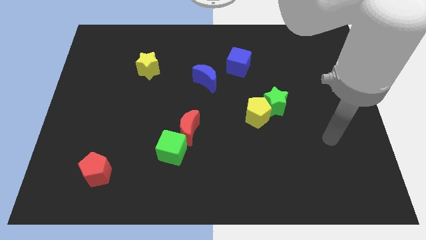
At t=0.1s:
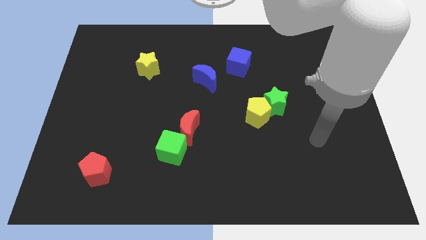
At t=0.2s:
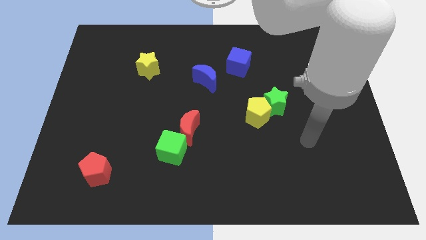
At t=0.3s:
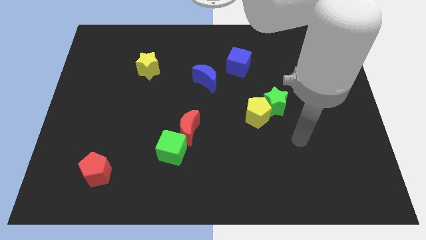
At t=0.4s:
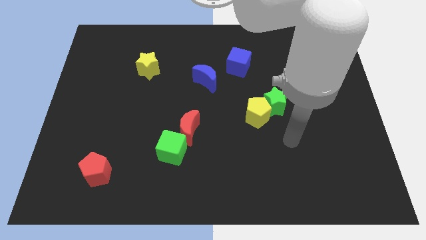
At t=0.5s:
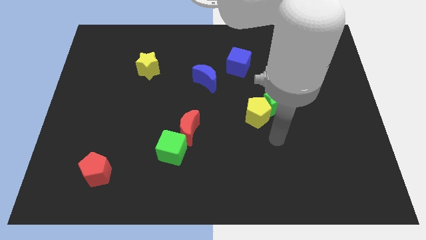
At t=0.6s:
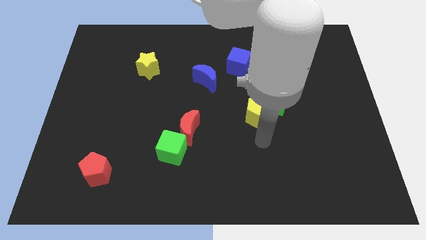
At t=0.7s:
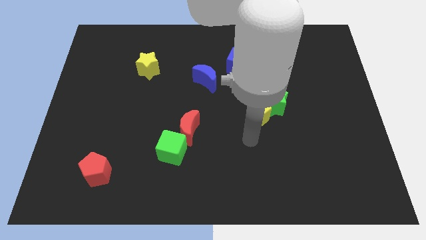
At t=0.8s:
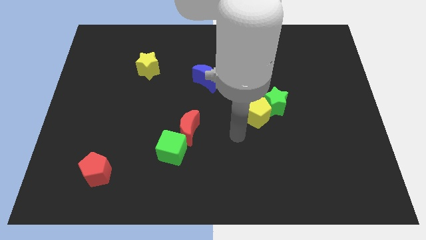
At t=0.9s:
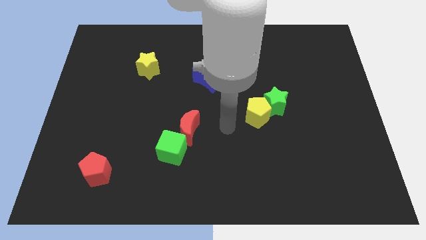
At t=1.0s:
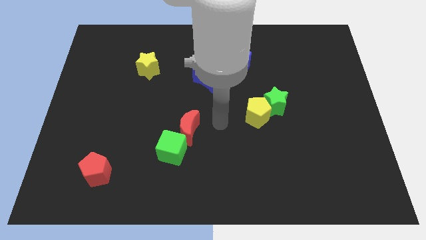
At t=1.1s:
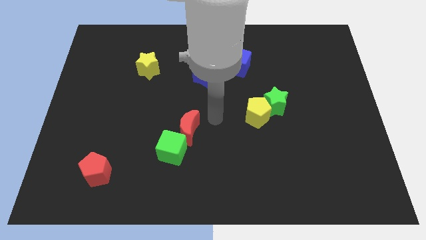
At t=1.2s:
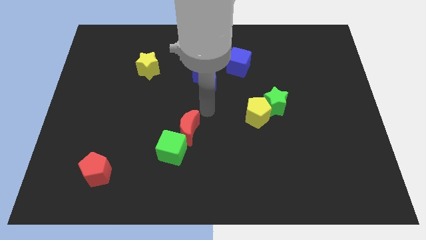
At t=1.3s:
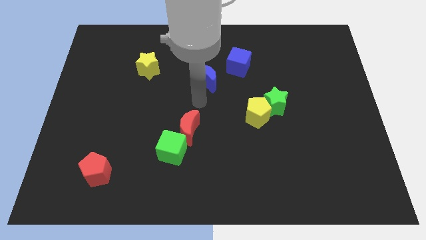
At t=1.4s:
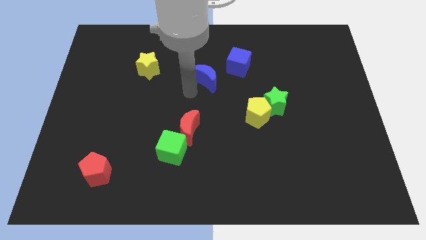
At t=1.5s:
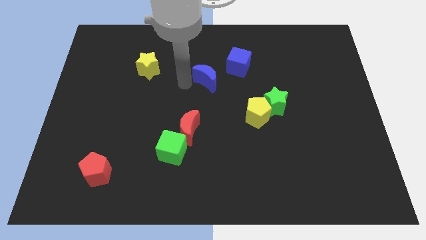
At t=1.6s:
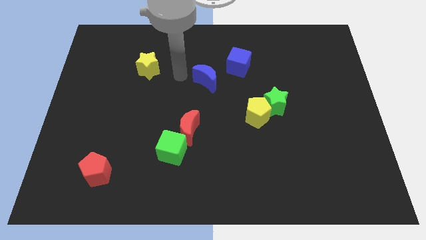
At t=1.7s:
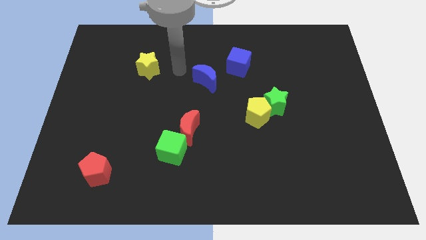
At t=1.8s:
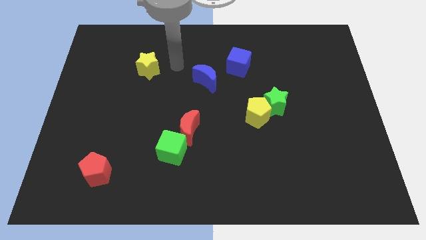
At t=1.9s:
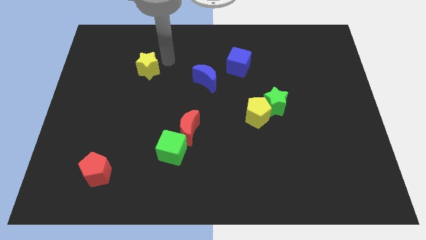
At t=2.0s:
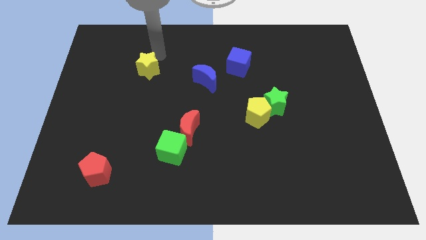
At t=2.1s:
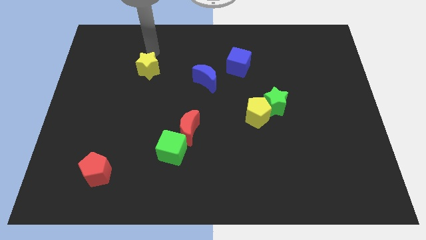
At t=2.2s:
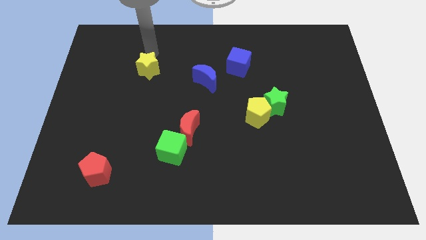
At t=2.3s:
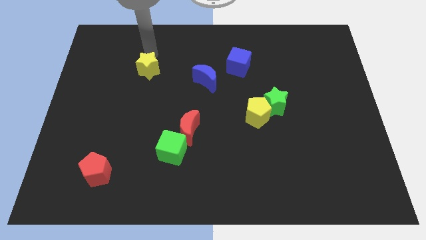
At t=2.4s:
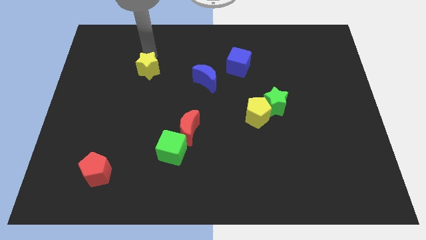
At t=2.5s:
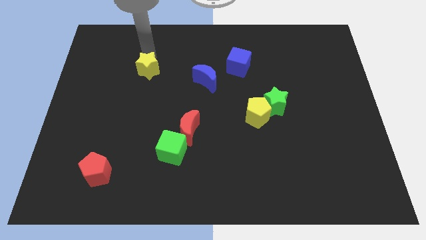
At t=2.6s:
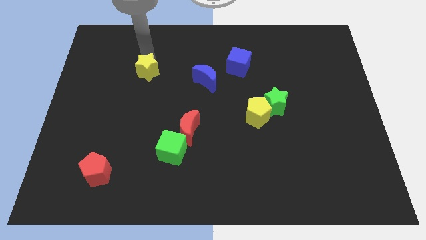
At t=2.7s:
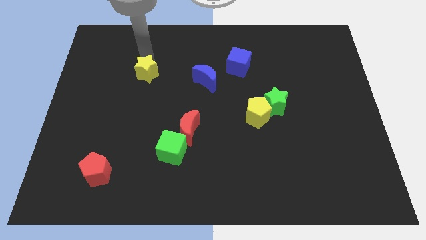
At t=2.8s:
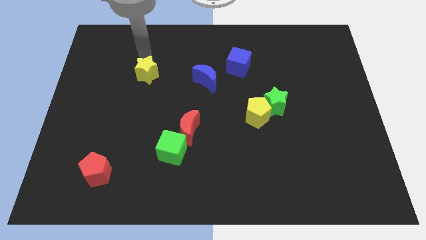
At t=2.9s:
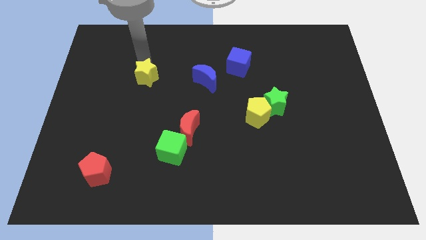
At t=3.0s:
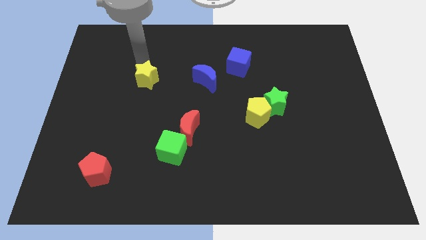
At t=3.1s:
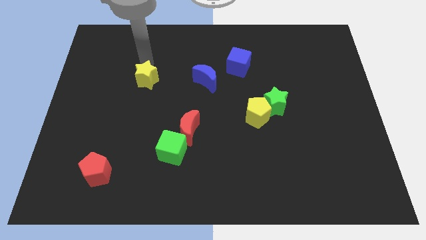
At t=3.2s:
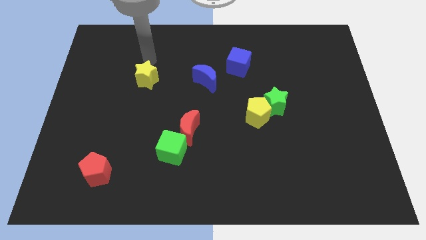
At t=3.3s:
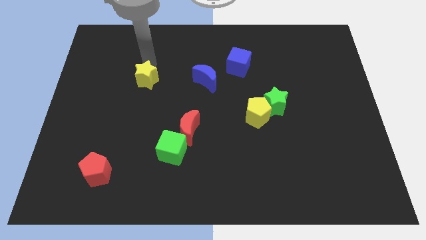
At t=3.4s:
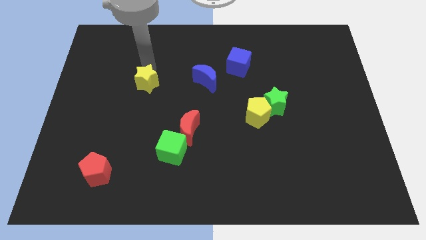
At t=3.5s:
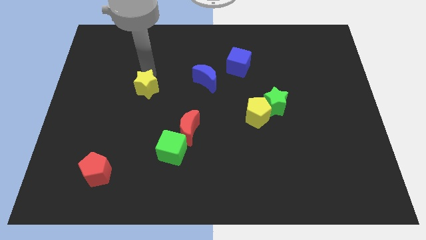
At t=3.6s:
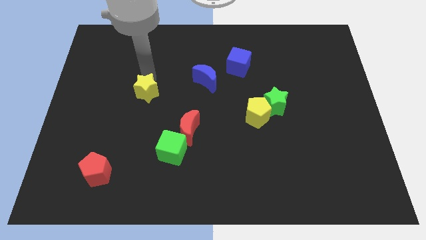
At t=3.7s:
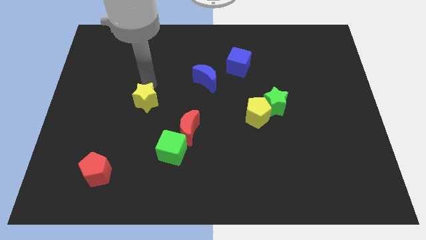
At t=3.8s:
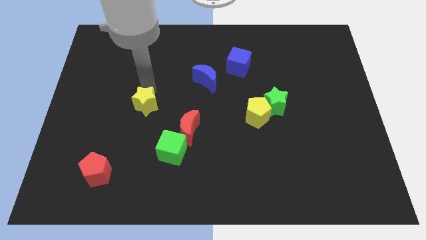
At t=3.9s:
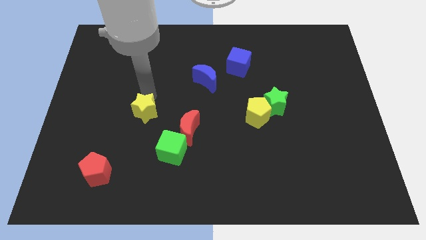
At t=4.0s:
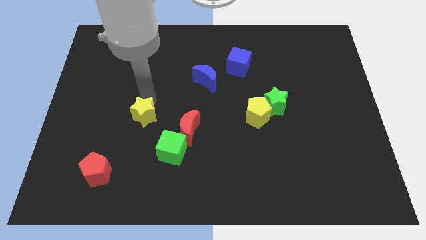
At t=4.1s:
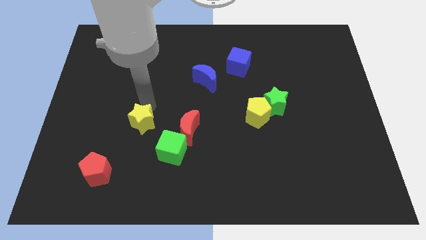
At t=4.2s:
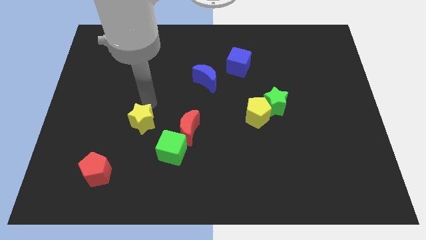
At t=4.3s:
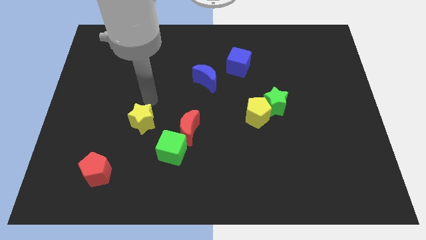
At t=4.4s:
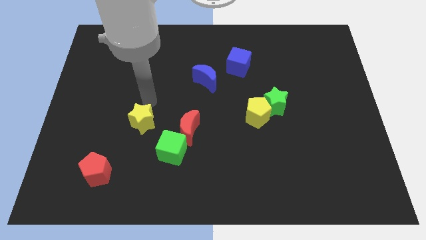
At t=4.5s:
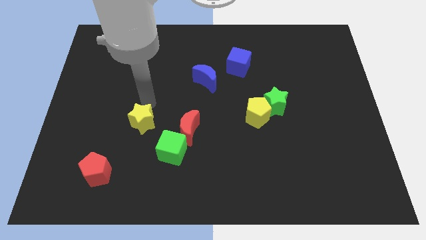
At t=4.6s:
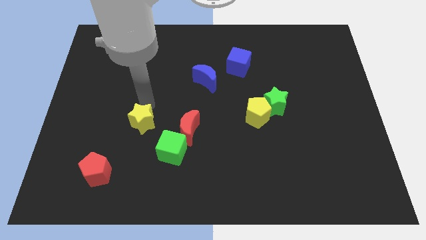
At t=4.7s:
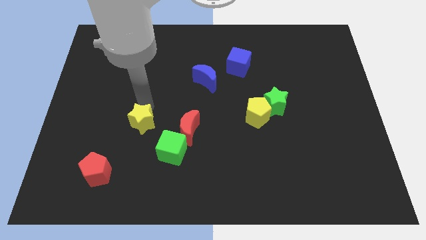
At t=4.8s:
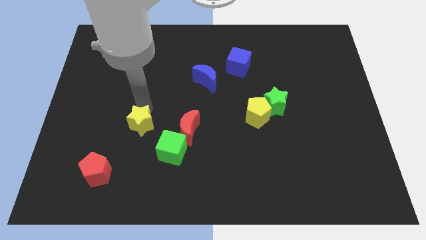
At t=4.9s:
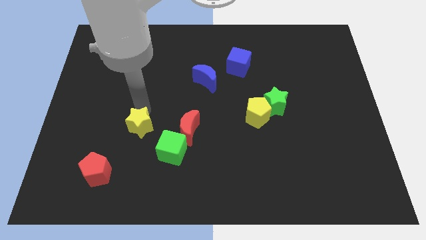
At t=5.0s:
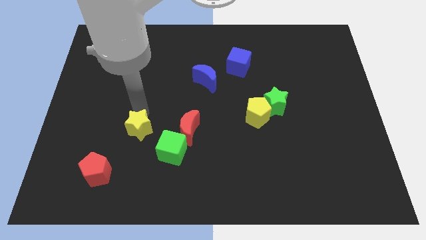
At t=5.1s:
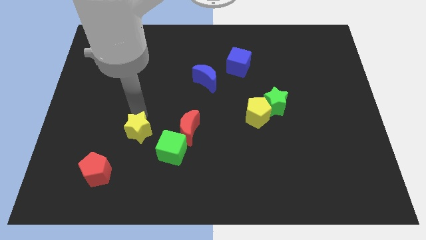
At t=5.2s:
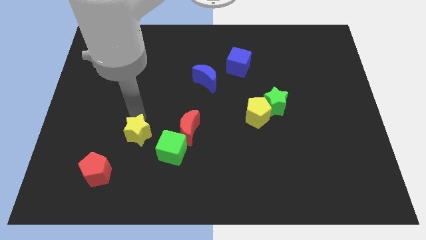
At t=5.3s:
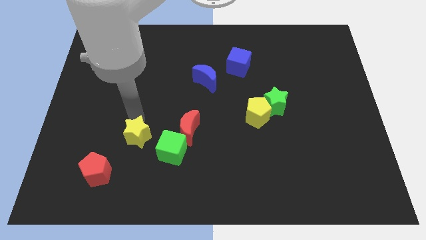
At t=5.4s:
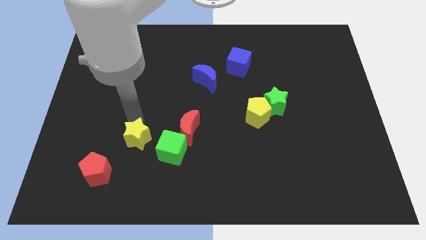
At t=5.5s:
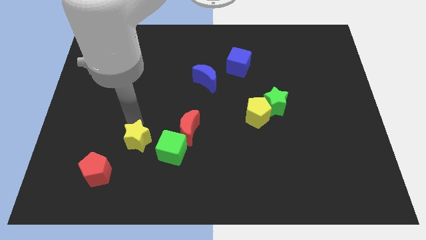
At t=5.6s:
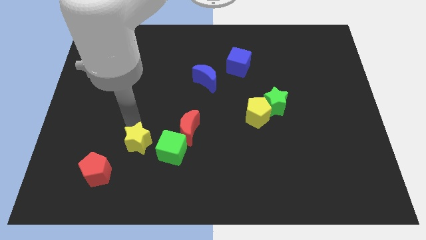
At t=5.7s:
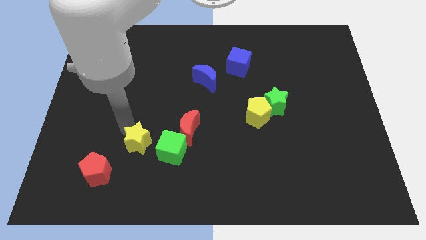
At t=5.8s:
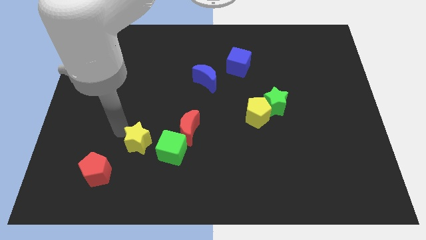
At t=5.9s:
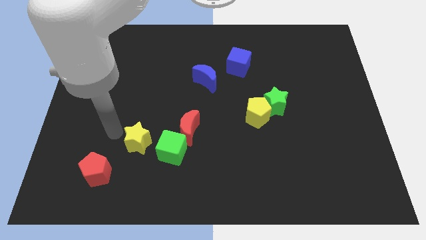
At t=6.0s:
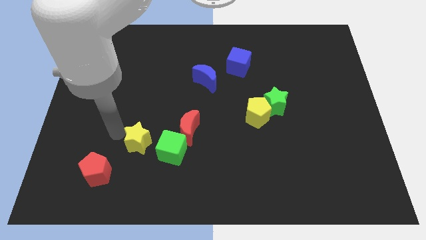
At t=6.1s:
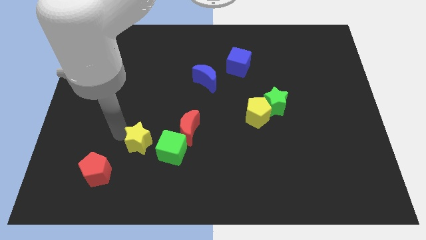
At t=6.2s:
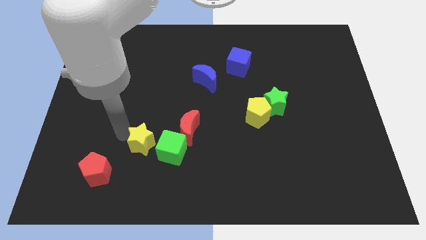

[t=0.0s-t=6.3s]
push the yellow star to the bottom left side of the red moon
